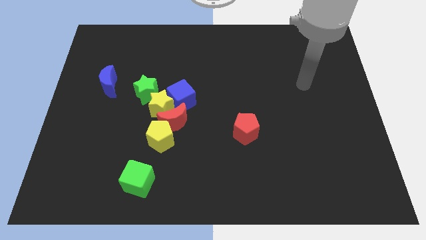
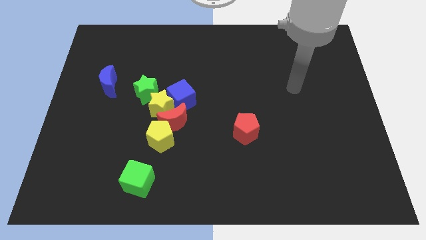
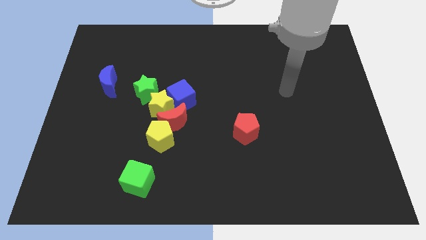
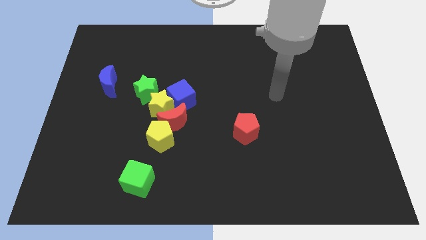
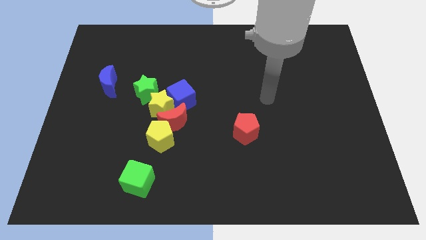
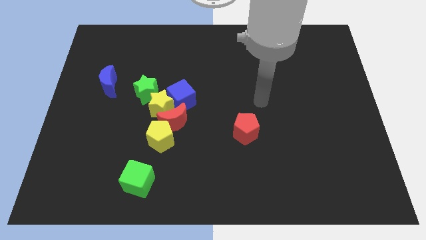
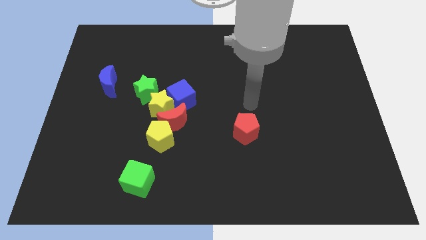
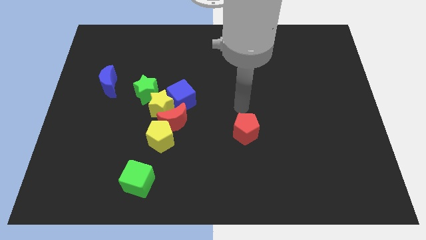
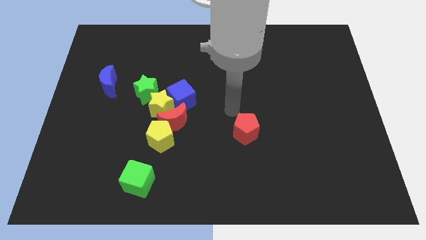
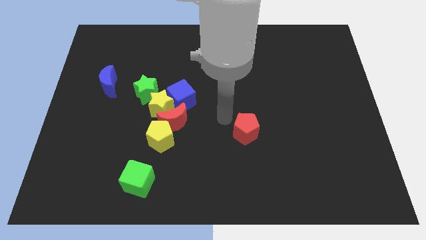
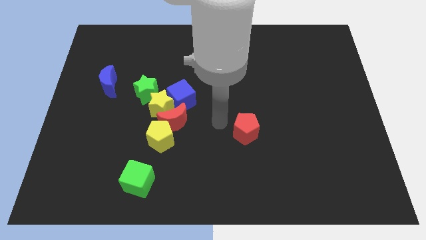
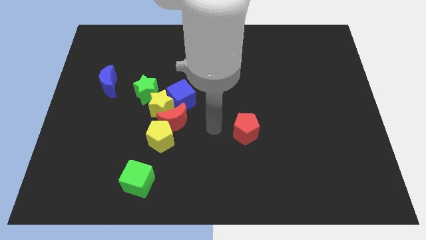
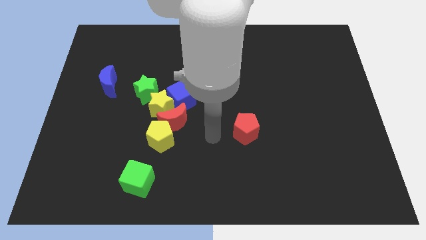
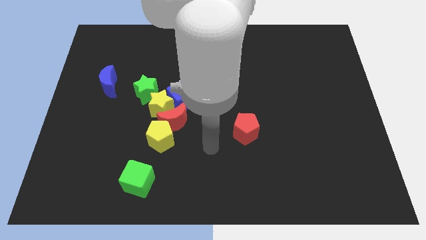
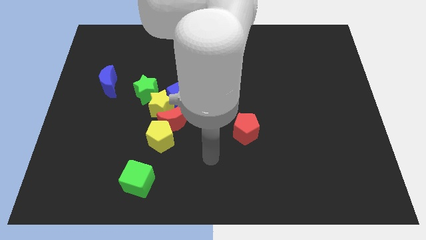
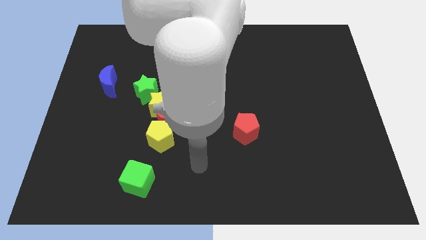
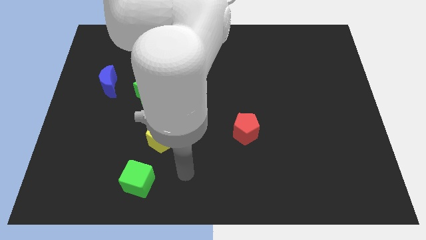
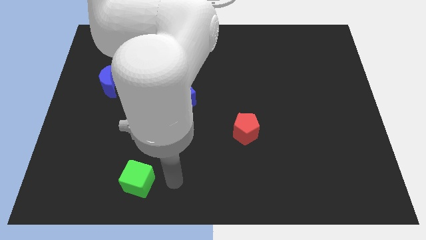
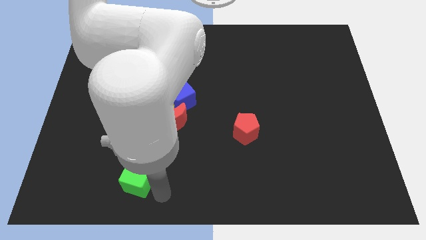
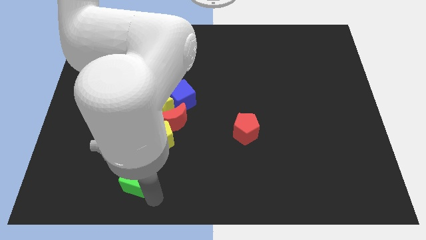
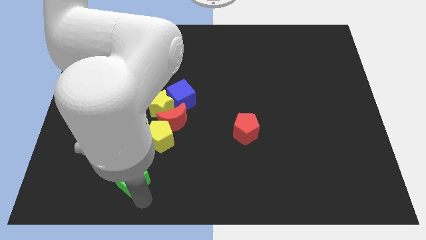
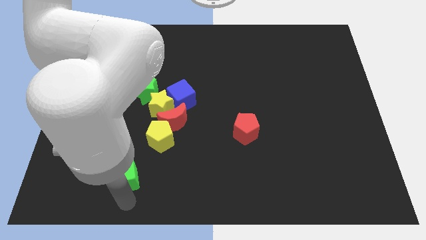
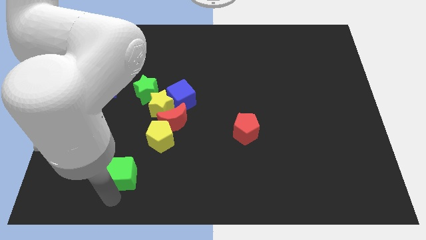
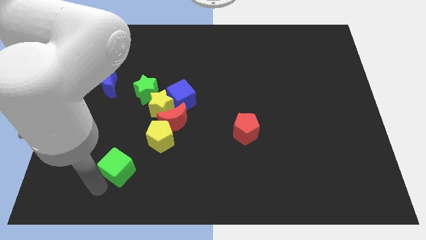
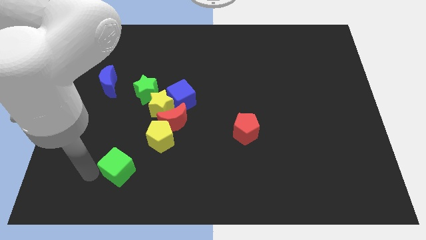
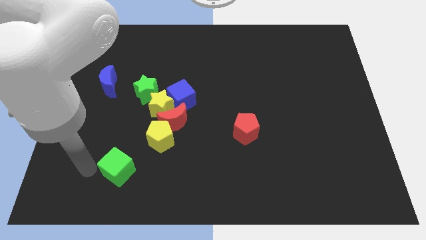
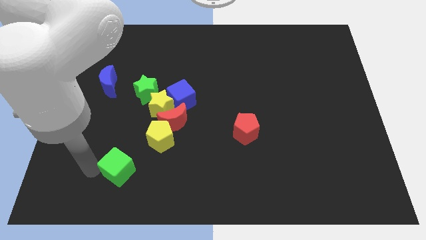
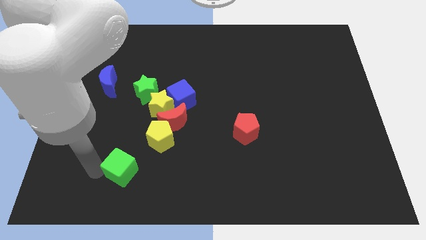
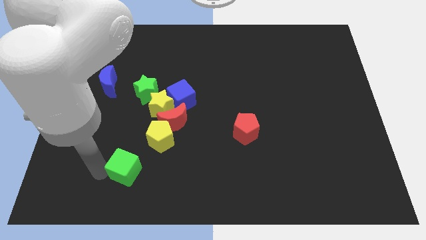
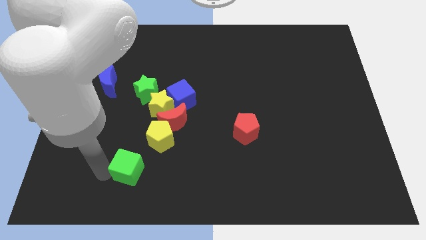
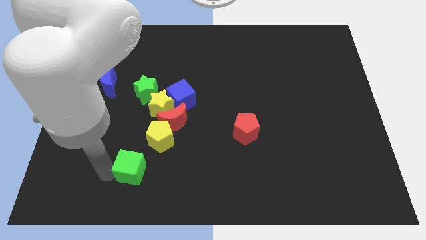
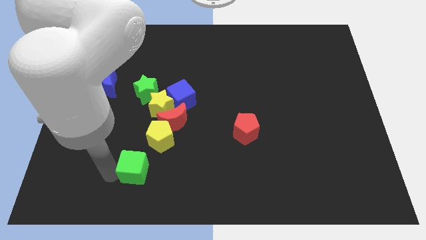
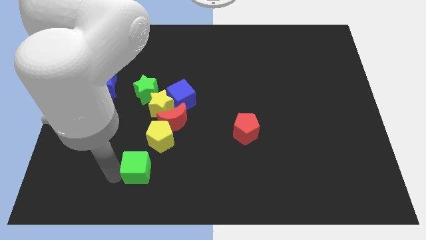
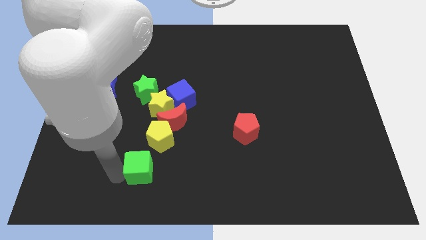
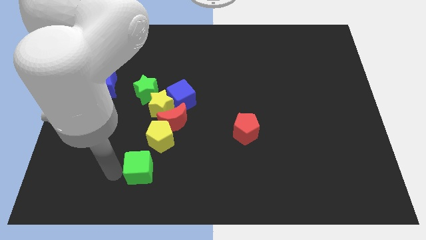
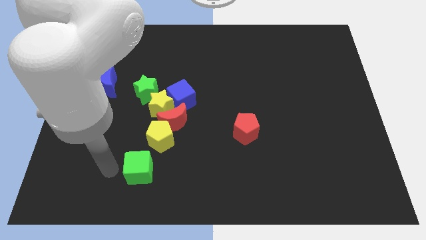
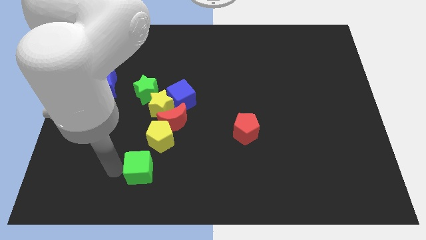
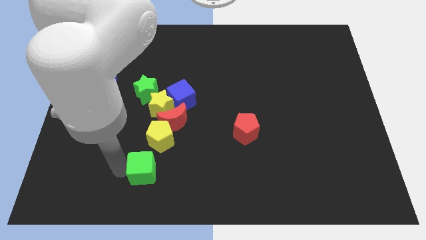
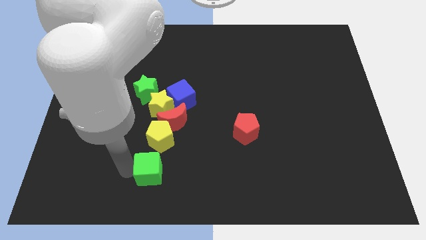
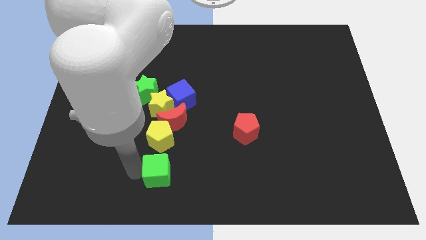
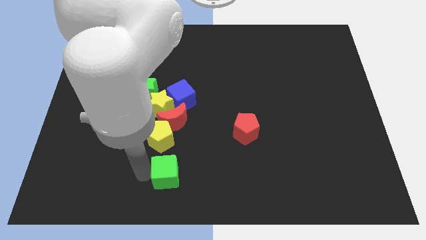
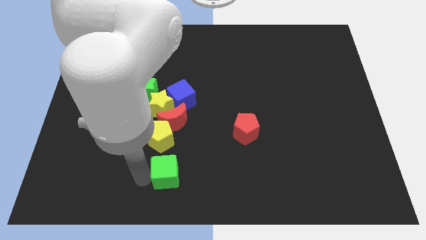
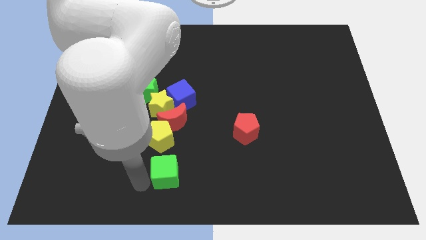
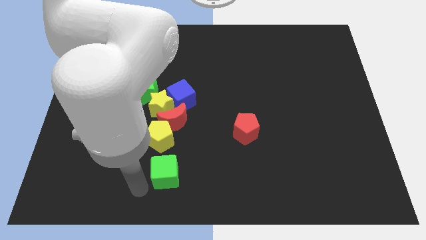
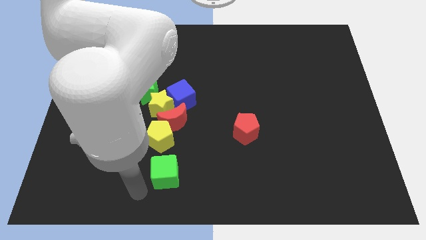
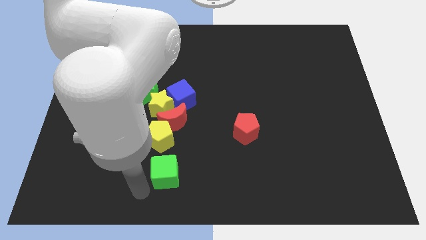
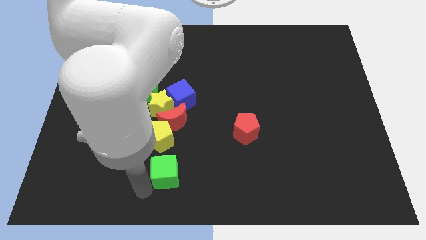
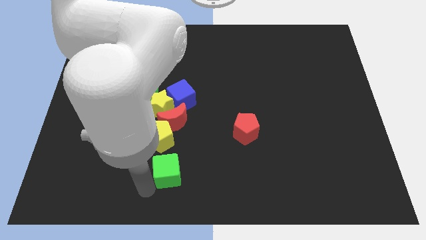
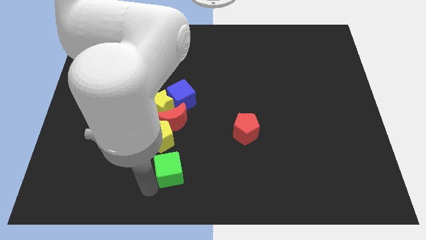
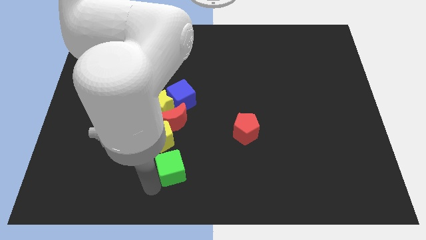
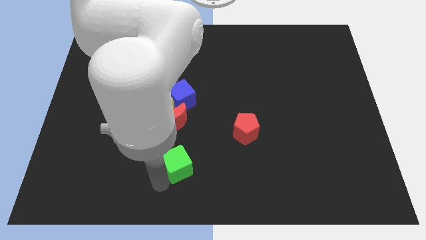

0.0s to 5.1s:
slightly slide the green cube up and right diagonally

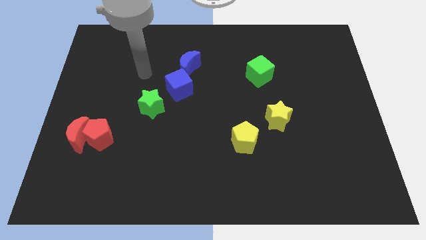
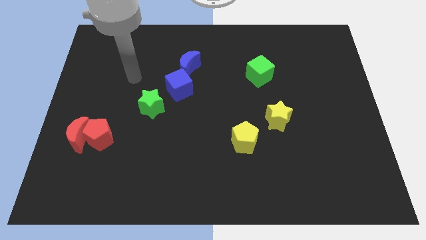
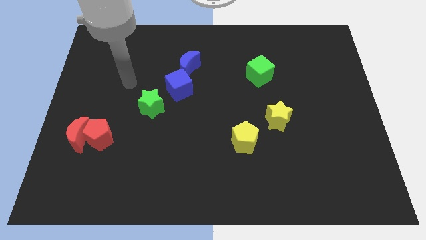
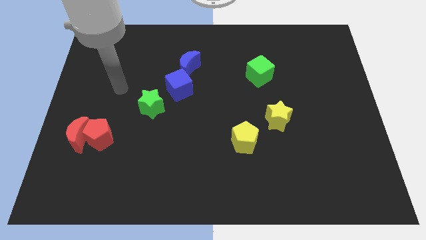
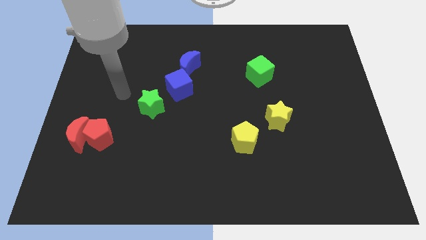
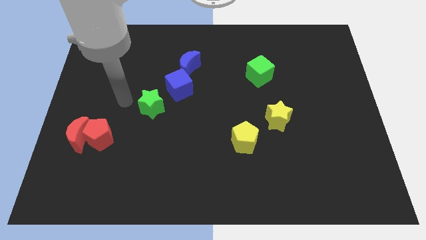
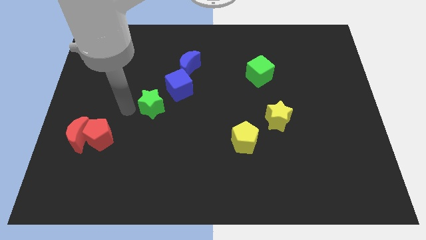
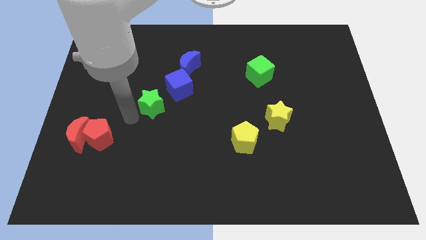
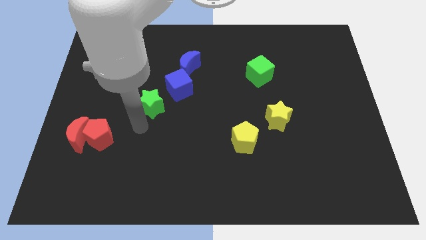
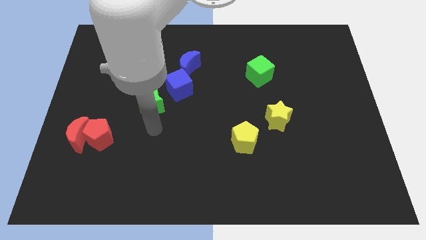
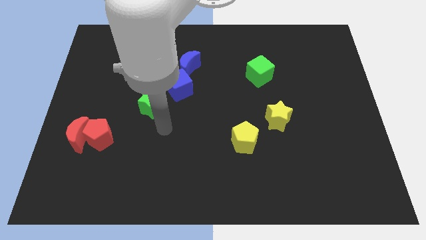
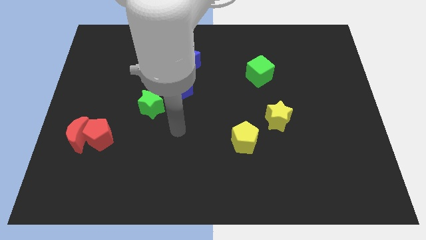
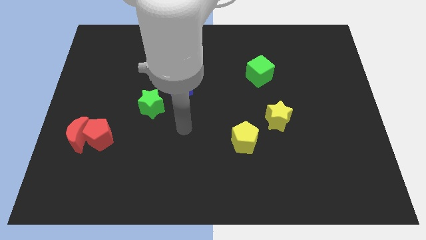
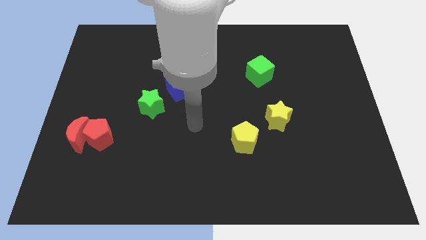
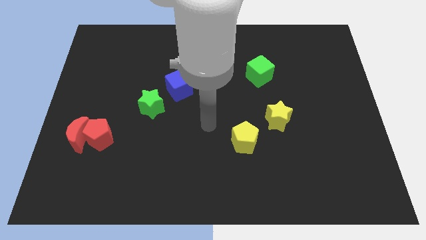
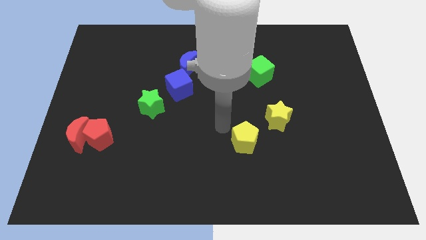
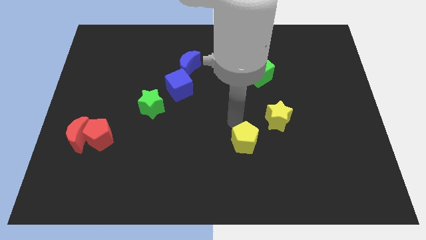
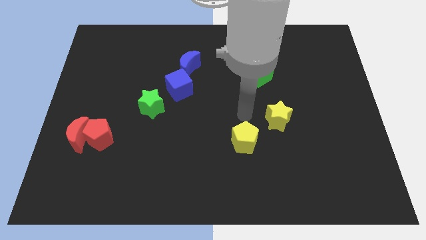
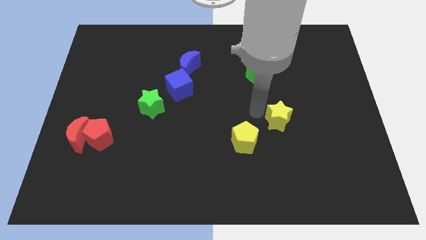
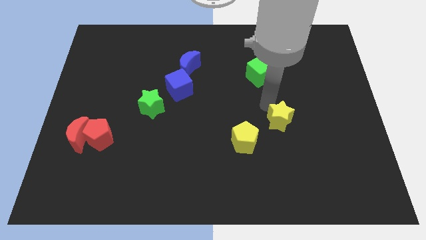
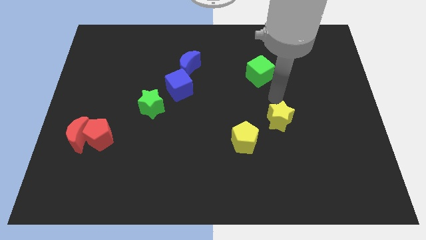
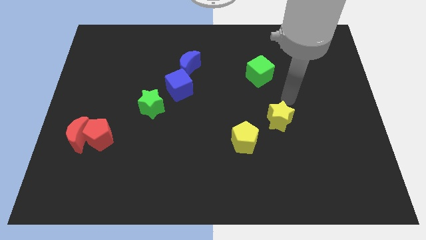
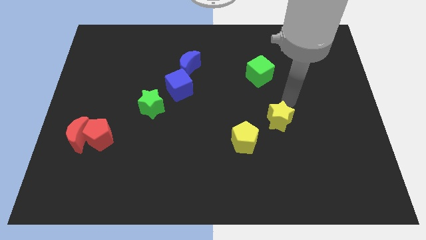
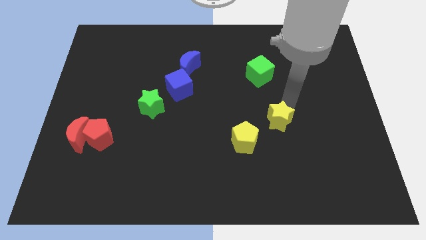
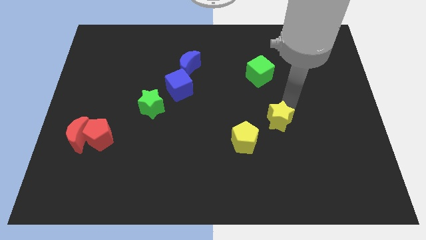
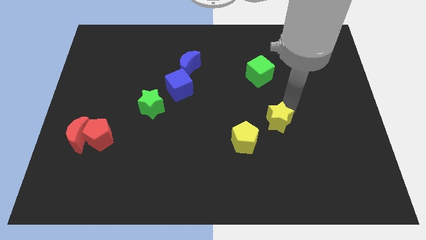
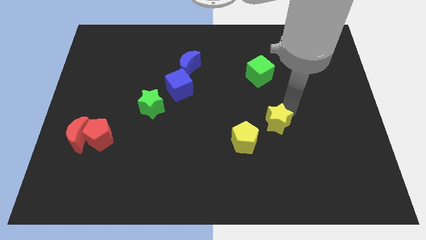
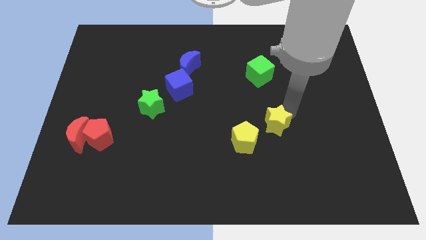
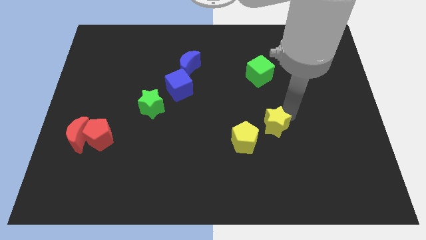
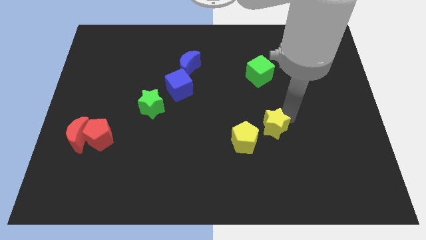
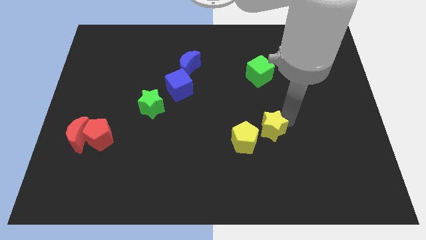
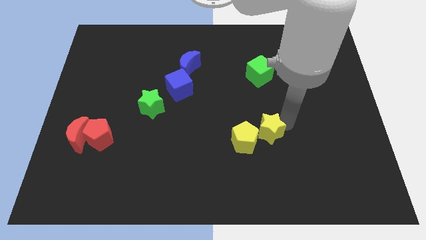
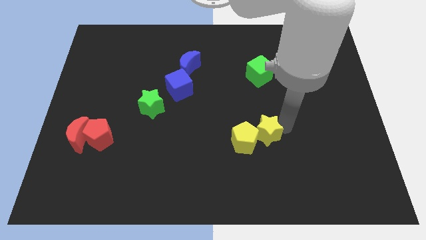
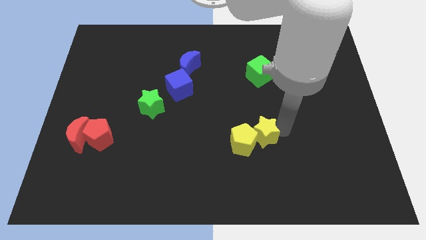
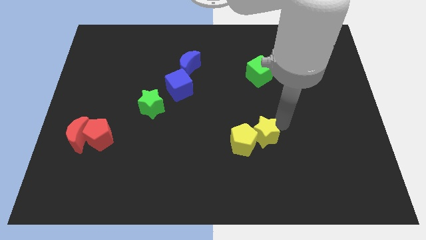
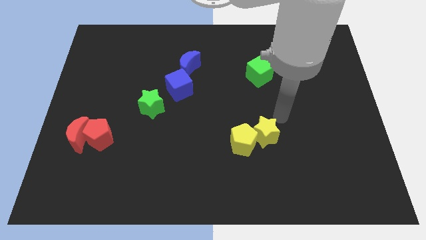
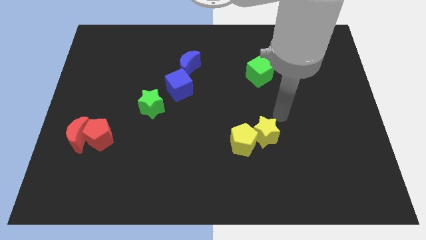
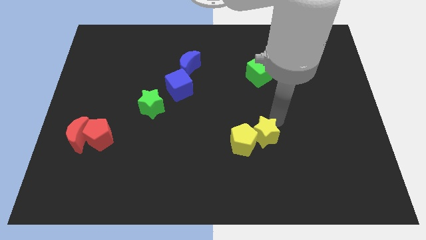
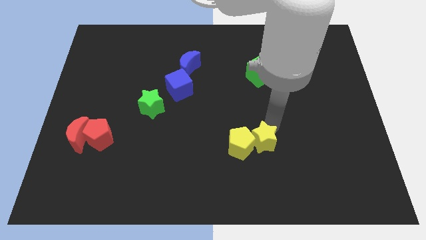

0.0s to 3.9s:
slightly move the yellow star downwards and left
